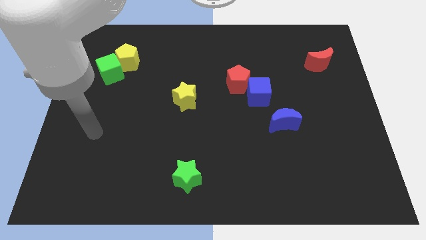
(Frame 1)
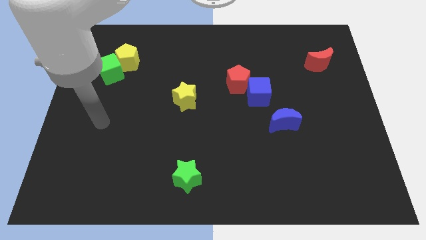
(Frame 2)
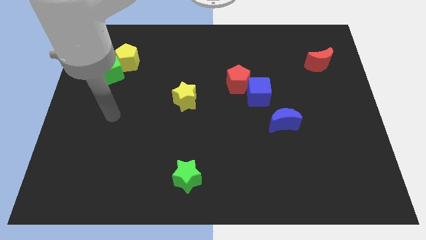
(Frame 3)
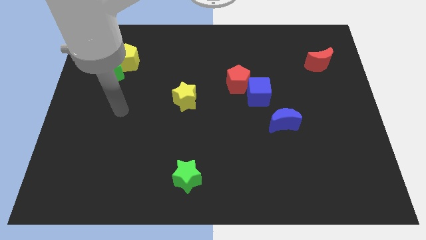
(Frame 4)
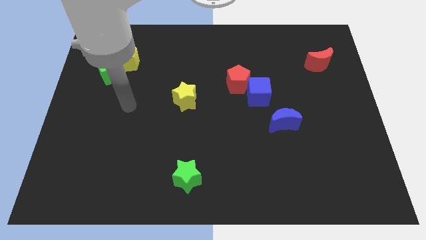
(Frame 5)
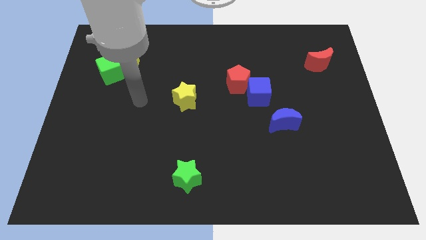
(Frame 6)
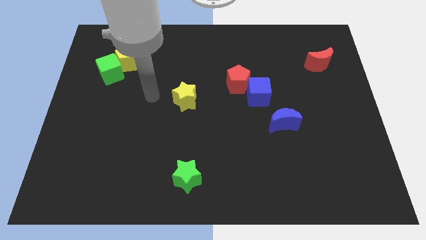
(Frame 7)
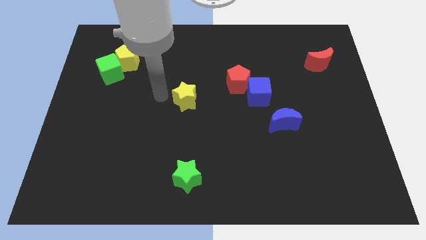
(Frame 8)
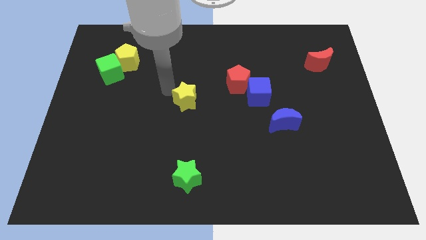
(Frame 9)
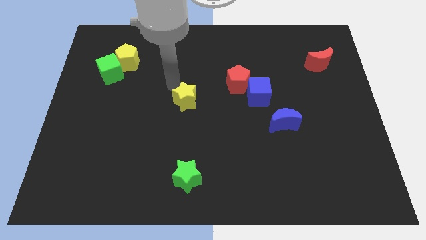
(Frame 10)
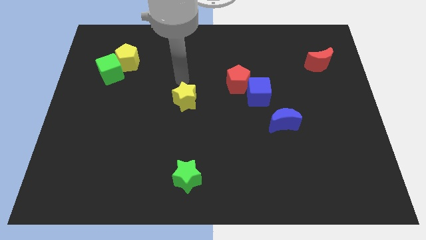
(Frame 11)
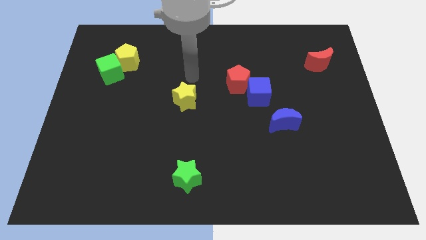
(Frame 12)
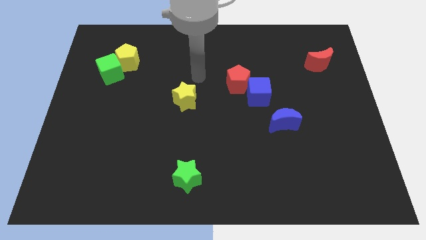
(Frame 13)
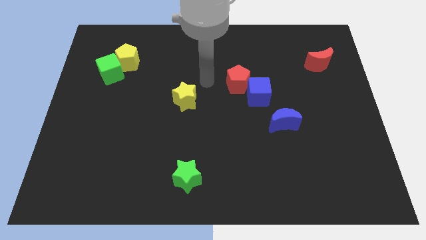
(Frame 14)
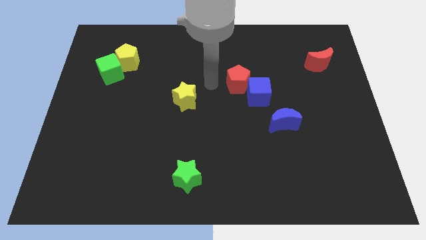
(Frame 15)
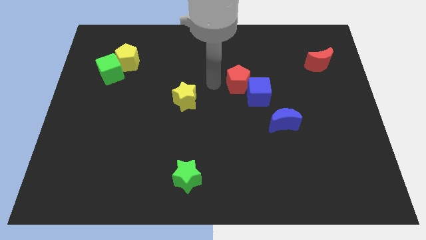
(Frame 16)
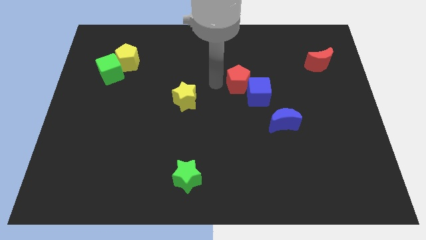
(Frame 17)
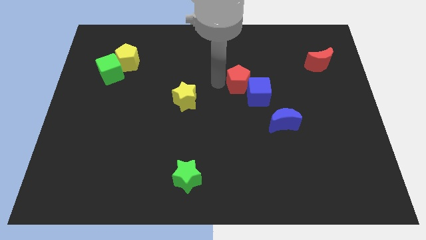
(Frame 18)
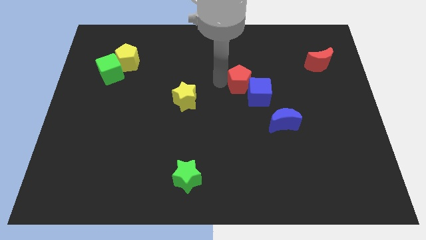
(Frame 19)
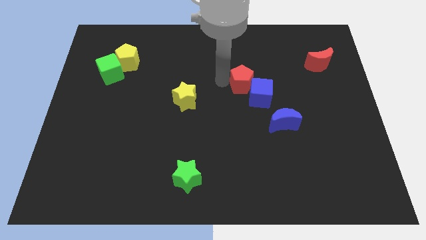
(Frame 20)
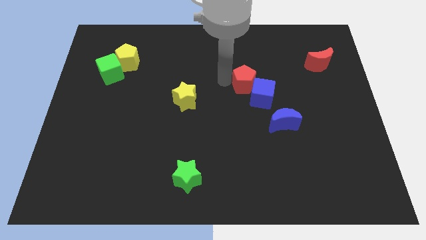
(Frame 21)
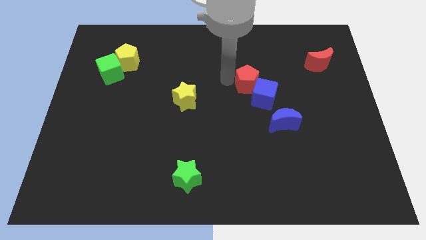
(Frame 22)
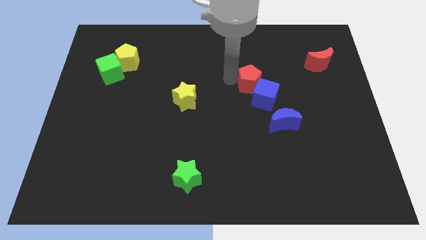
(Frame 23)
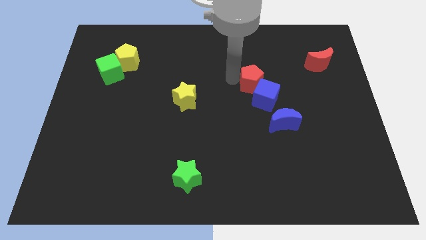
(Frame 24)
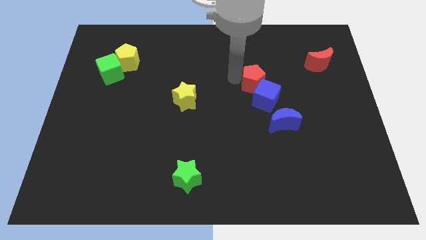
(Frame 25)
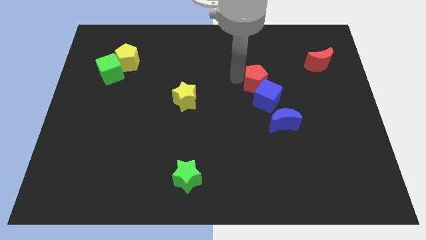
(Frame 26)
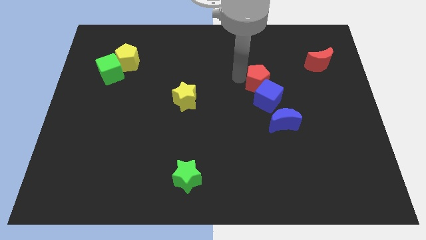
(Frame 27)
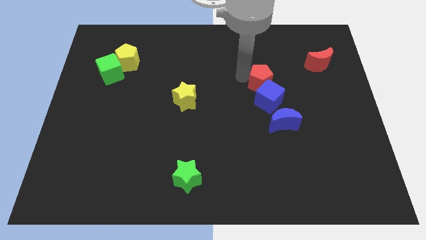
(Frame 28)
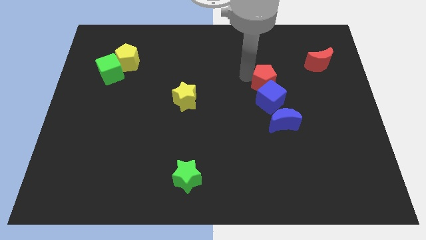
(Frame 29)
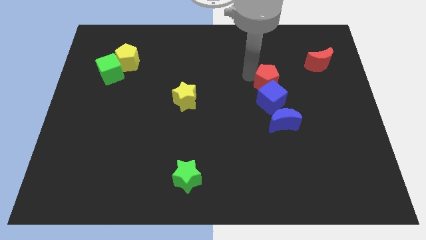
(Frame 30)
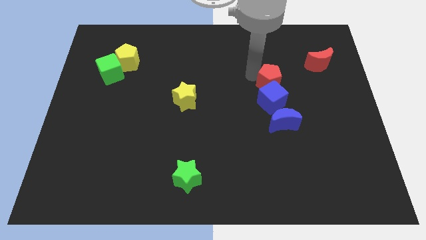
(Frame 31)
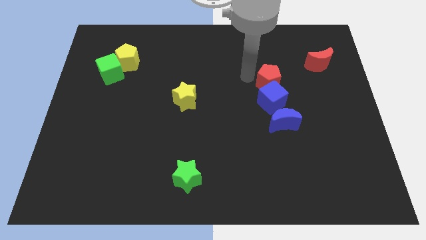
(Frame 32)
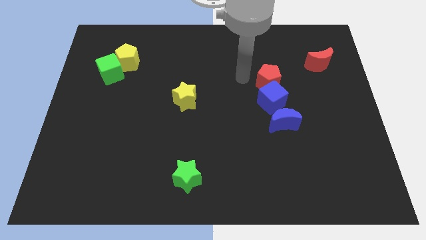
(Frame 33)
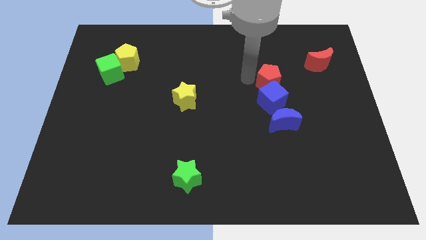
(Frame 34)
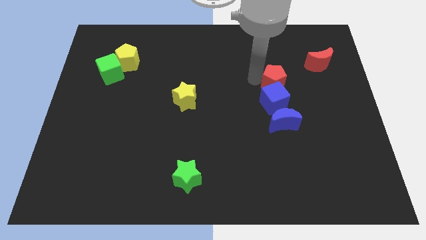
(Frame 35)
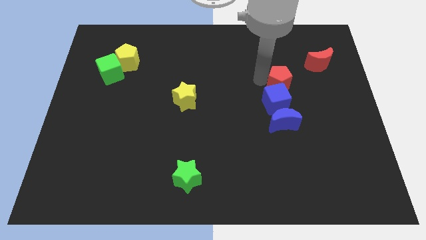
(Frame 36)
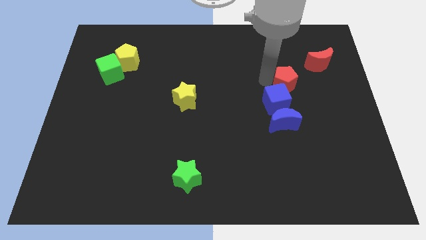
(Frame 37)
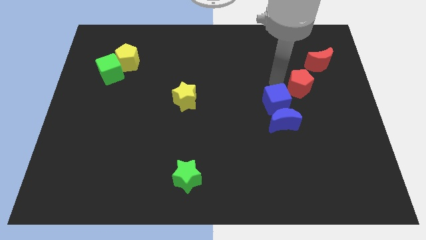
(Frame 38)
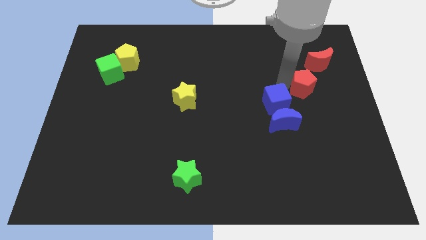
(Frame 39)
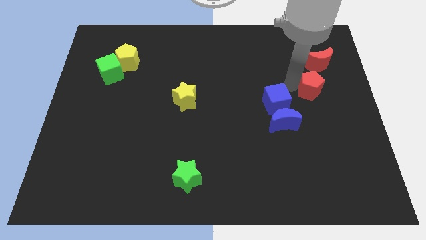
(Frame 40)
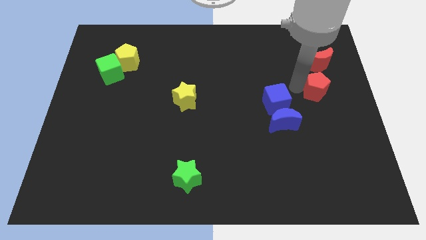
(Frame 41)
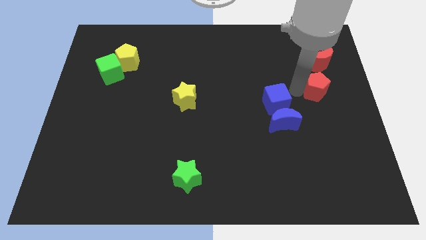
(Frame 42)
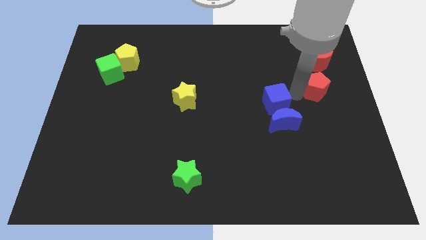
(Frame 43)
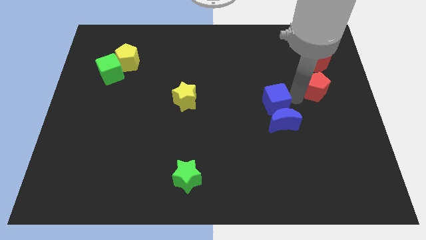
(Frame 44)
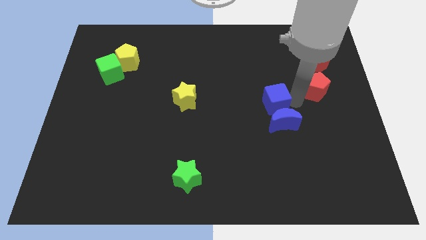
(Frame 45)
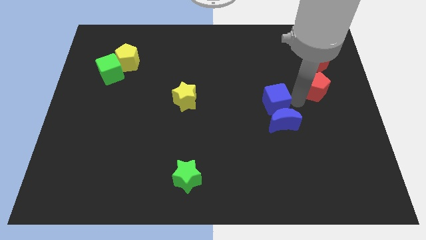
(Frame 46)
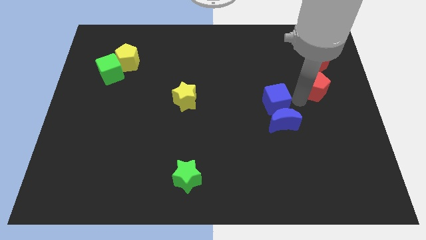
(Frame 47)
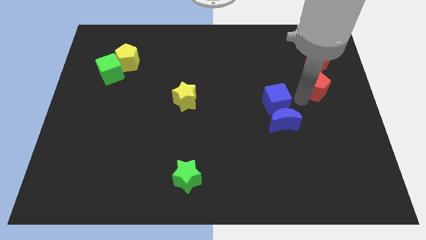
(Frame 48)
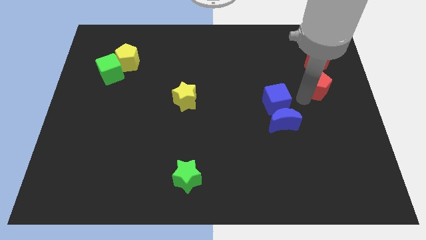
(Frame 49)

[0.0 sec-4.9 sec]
move the red pentagon to the right side of the board

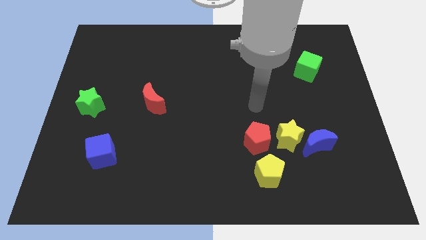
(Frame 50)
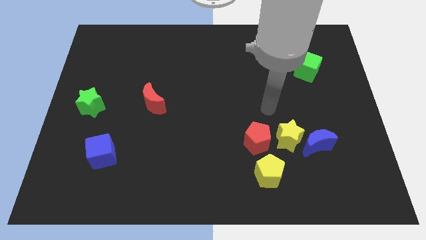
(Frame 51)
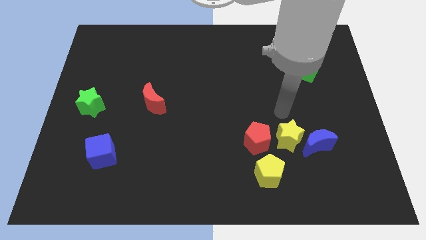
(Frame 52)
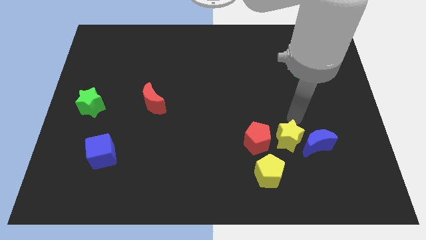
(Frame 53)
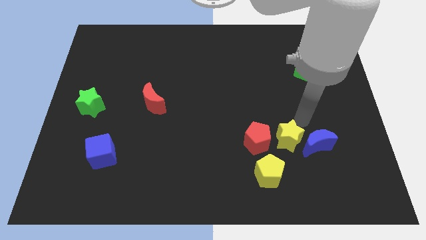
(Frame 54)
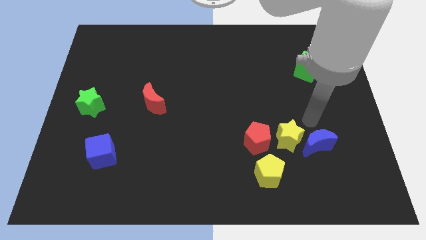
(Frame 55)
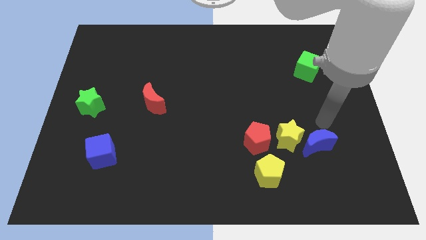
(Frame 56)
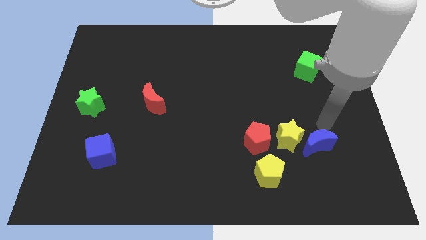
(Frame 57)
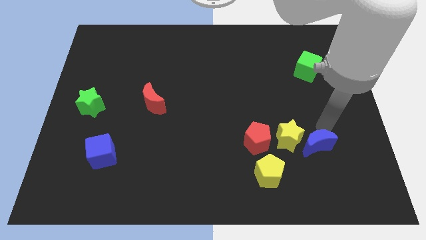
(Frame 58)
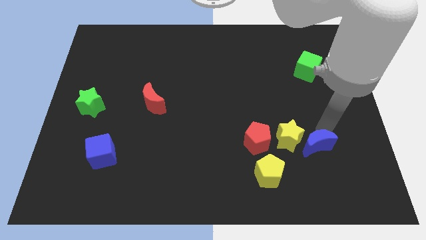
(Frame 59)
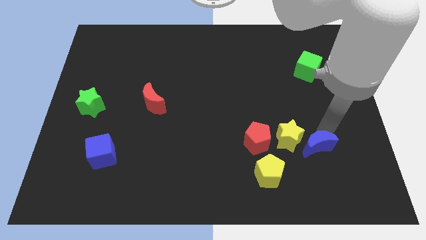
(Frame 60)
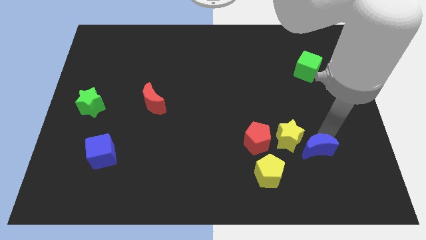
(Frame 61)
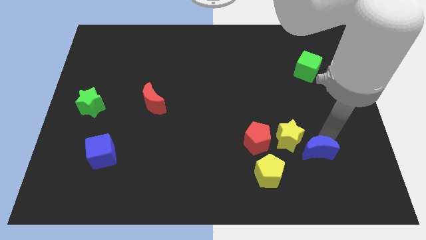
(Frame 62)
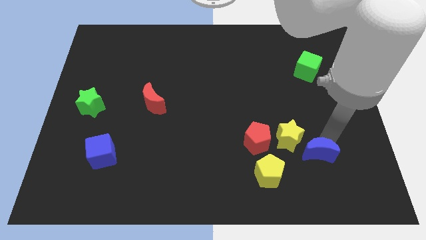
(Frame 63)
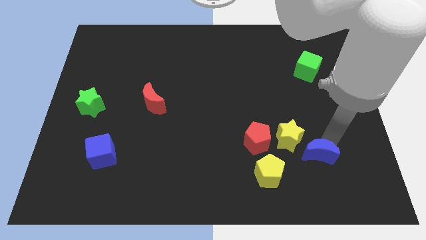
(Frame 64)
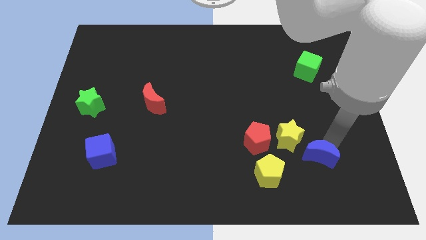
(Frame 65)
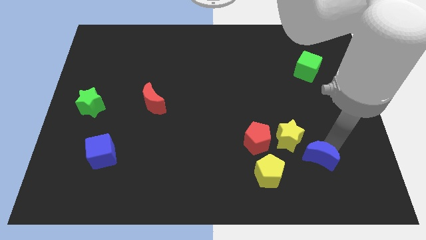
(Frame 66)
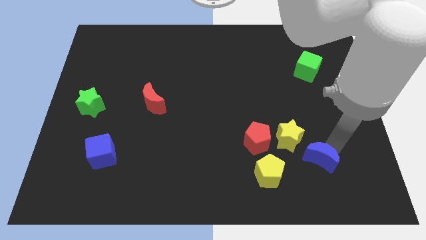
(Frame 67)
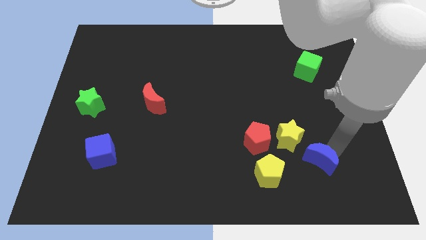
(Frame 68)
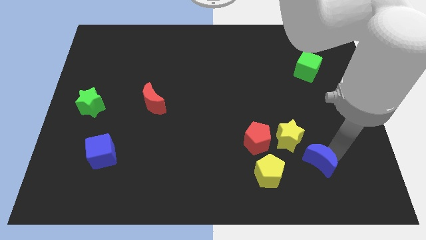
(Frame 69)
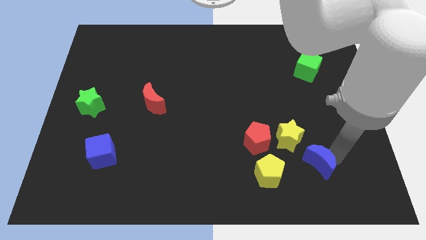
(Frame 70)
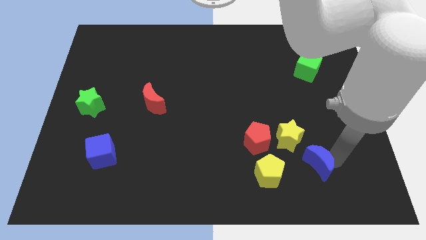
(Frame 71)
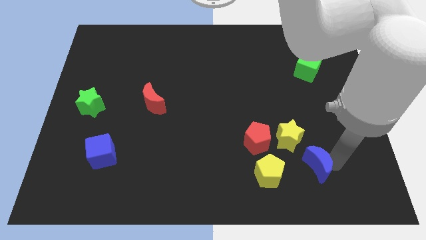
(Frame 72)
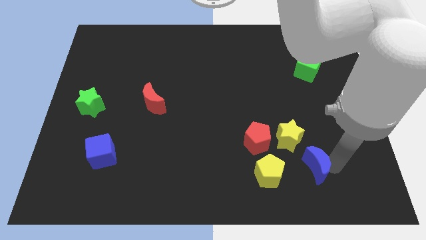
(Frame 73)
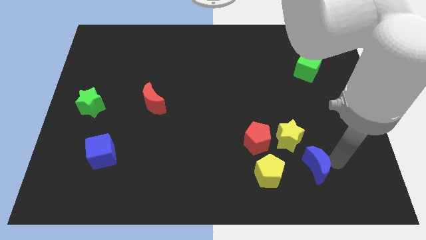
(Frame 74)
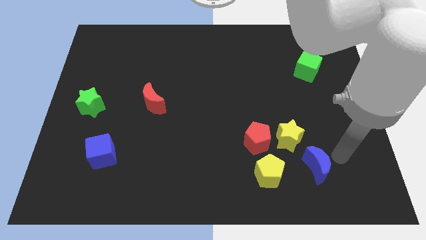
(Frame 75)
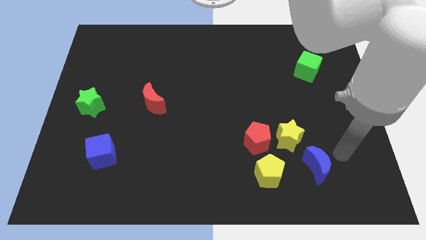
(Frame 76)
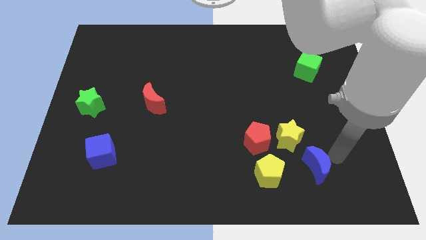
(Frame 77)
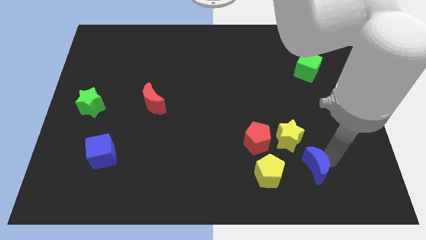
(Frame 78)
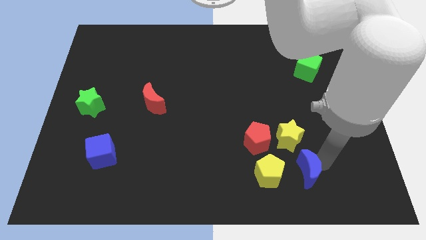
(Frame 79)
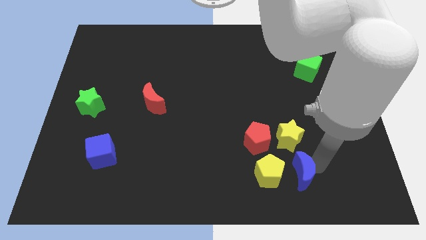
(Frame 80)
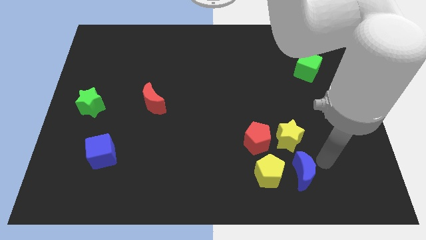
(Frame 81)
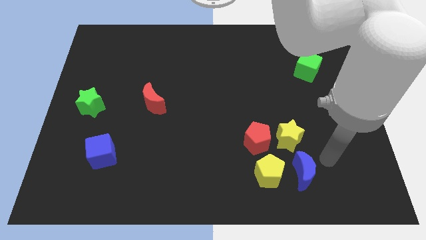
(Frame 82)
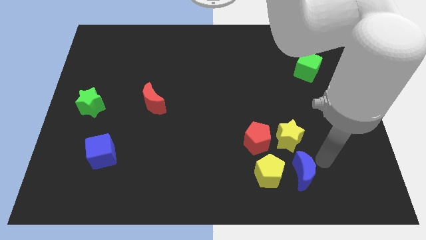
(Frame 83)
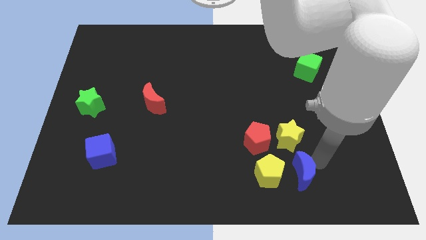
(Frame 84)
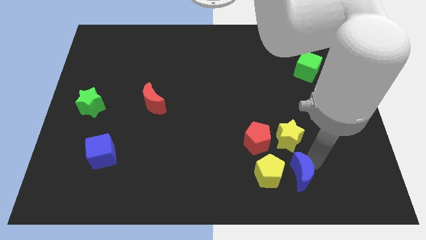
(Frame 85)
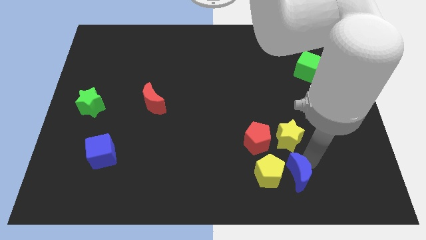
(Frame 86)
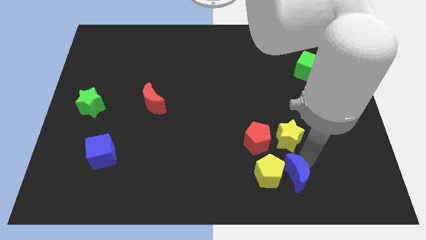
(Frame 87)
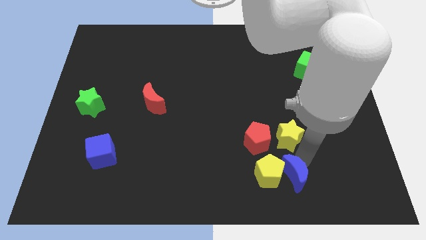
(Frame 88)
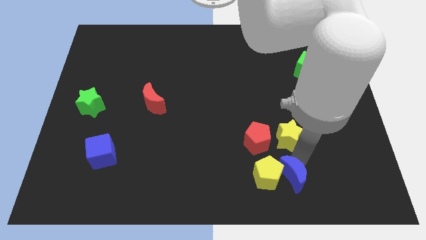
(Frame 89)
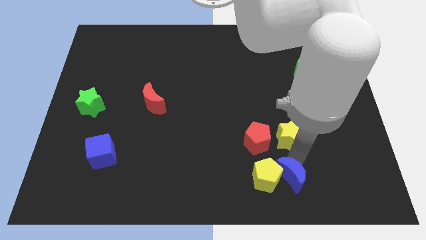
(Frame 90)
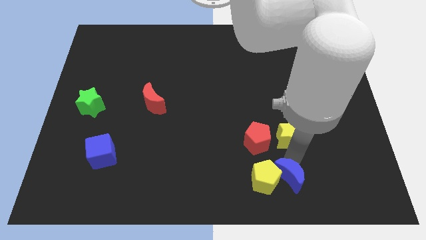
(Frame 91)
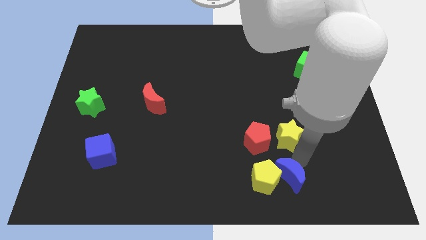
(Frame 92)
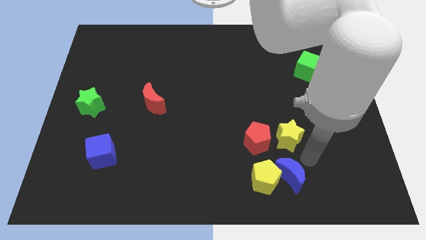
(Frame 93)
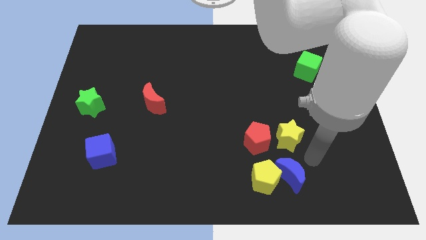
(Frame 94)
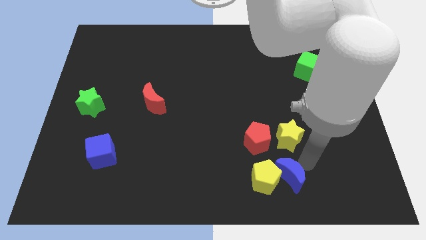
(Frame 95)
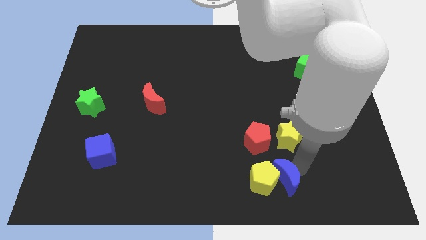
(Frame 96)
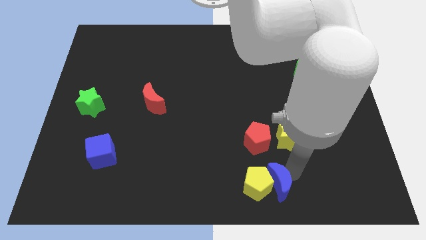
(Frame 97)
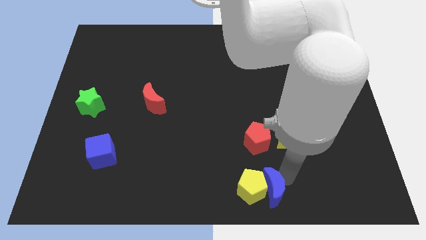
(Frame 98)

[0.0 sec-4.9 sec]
move the blue moon to the bottom side
